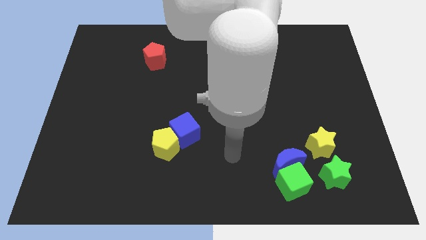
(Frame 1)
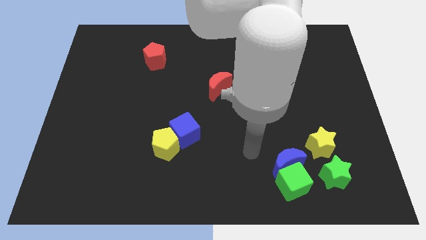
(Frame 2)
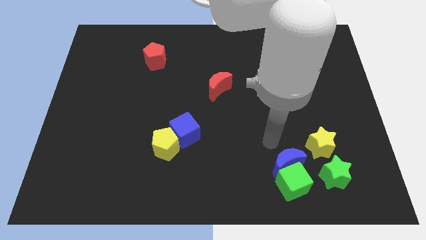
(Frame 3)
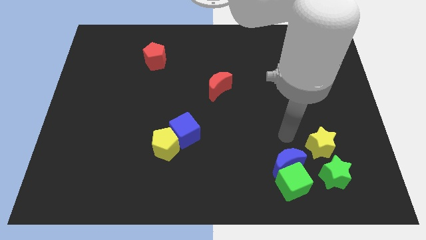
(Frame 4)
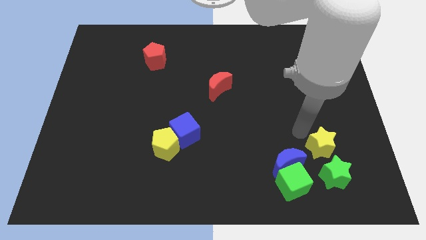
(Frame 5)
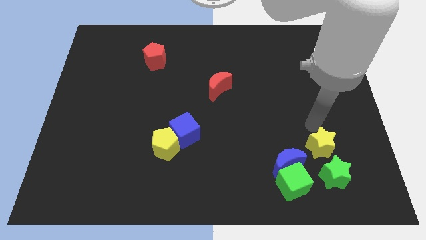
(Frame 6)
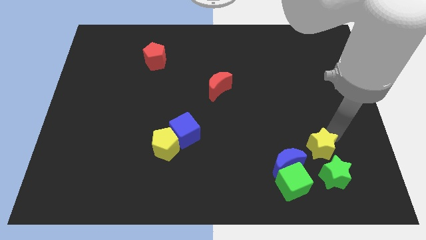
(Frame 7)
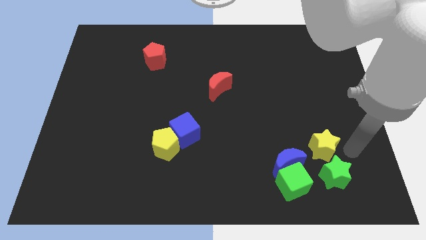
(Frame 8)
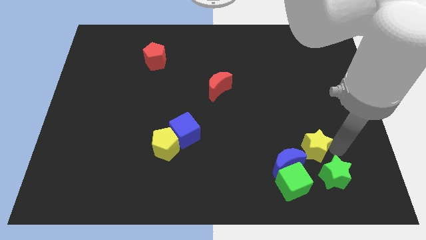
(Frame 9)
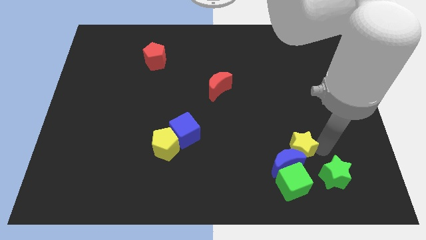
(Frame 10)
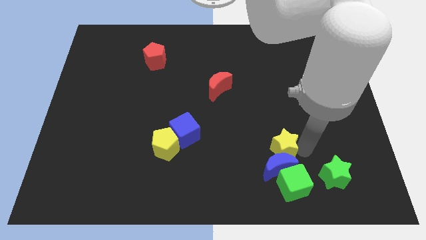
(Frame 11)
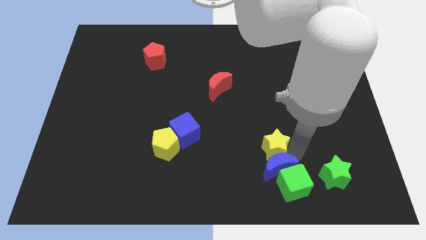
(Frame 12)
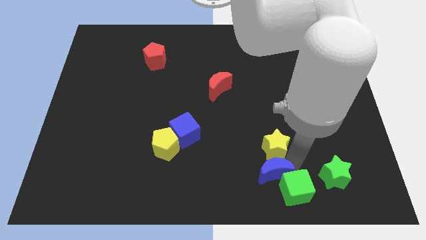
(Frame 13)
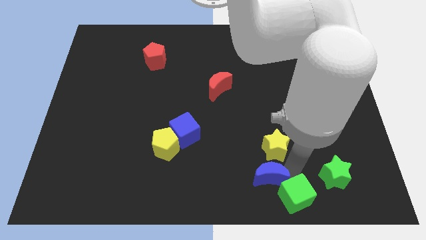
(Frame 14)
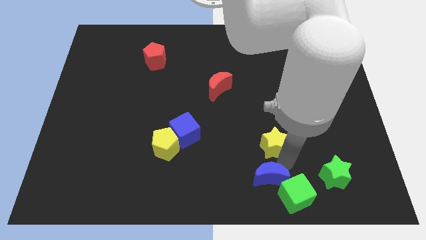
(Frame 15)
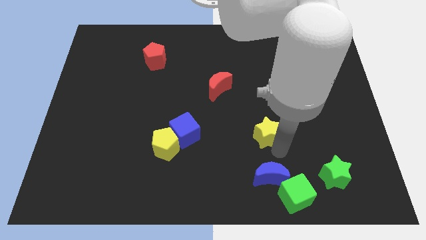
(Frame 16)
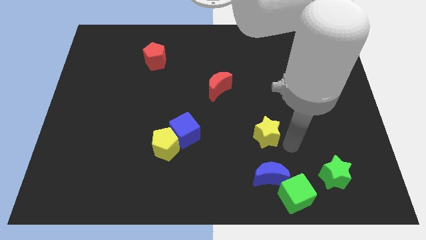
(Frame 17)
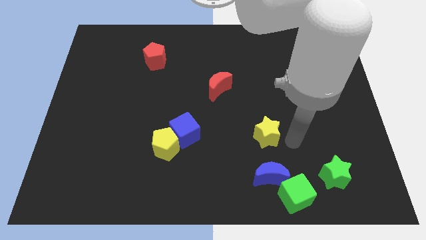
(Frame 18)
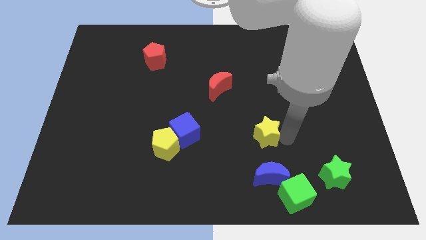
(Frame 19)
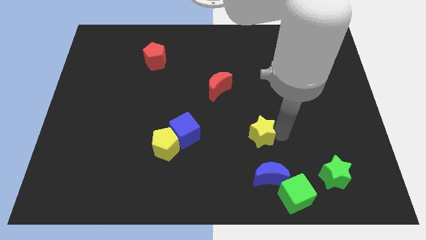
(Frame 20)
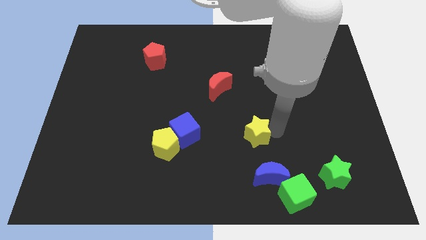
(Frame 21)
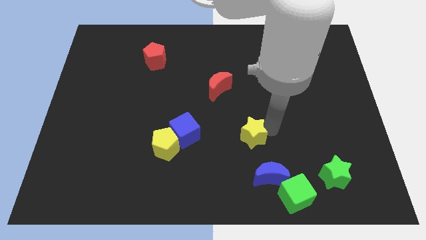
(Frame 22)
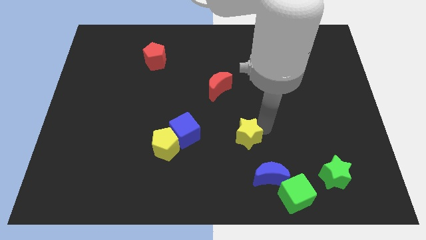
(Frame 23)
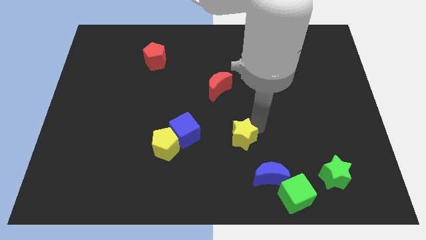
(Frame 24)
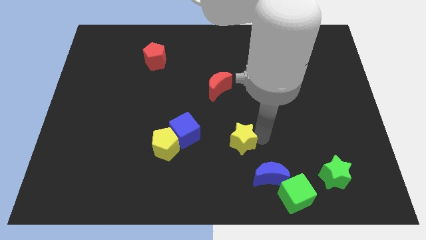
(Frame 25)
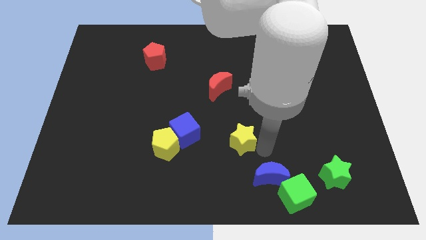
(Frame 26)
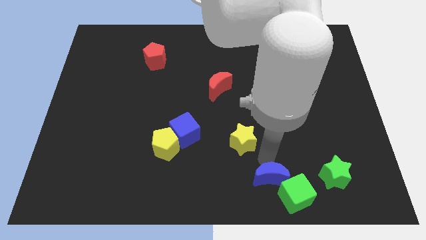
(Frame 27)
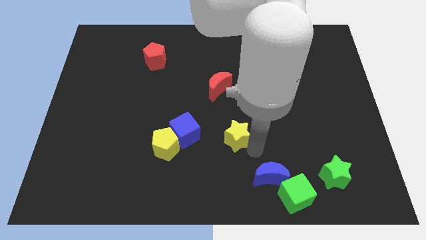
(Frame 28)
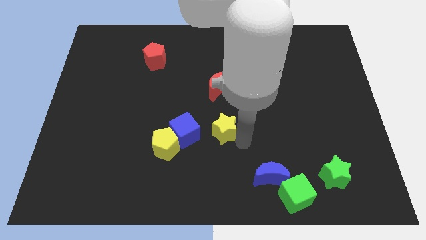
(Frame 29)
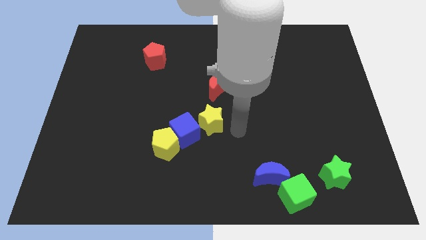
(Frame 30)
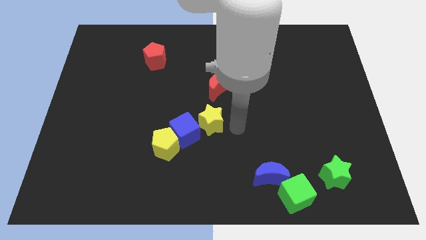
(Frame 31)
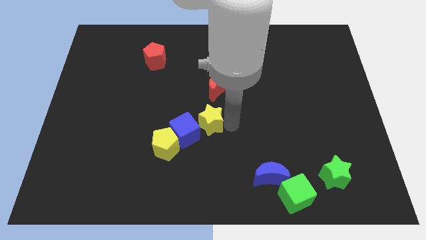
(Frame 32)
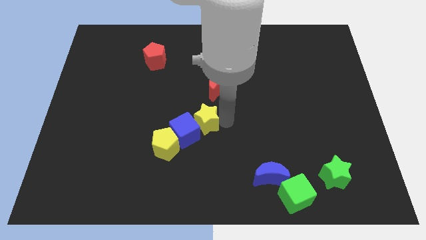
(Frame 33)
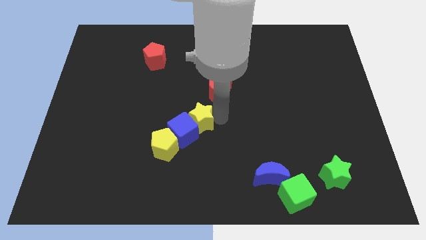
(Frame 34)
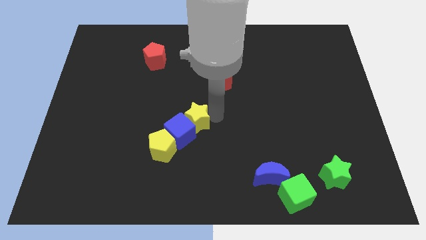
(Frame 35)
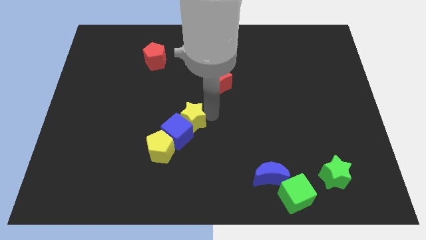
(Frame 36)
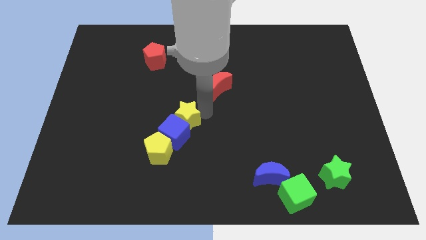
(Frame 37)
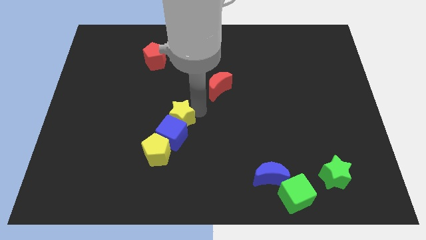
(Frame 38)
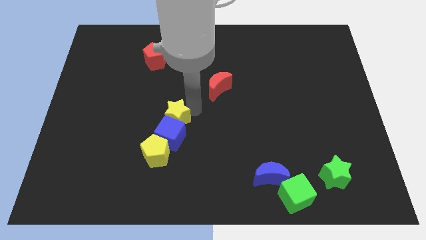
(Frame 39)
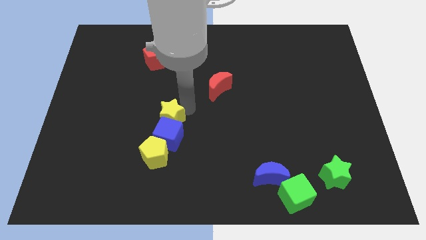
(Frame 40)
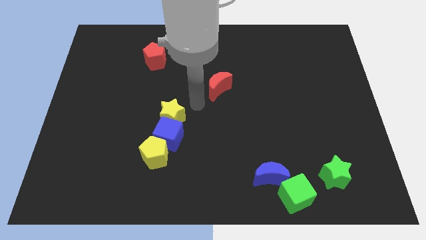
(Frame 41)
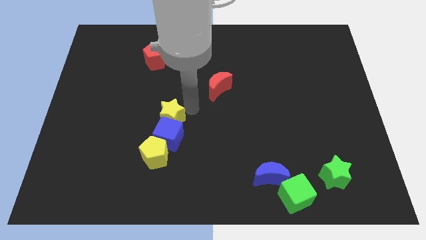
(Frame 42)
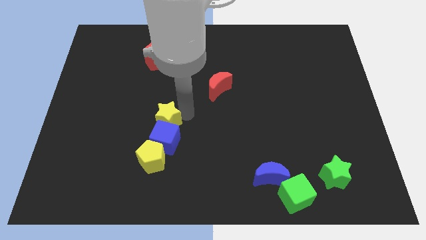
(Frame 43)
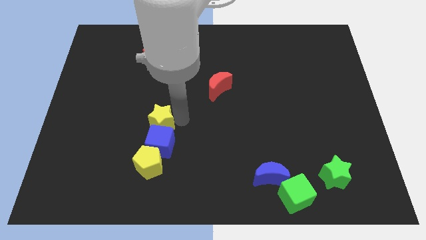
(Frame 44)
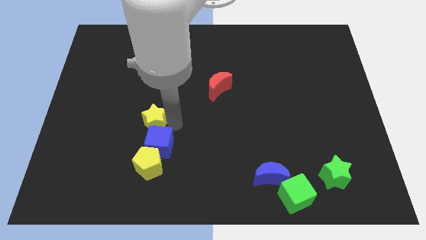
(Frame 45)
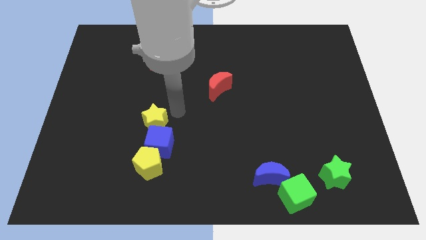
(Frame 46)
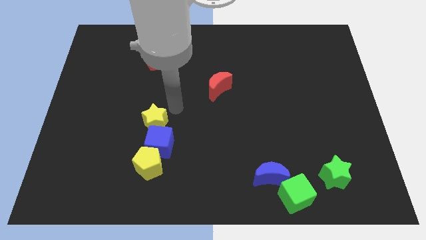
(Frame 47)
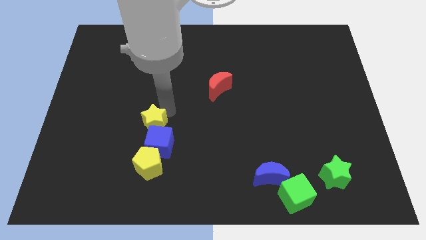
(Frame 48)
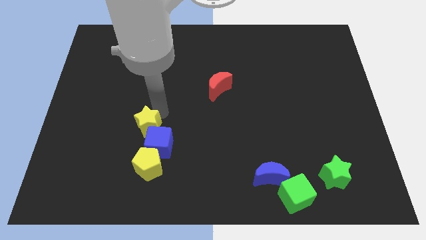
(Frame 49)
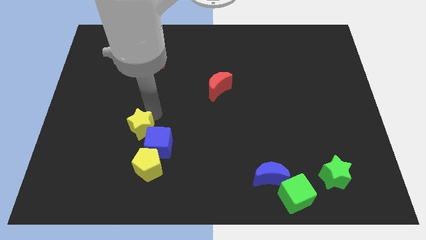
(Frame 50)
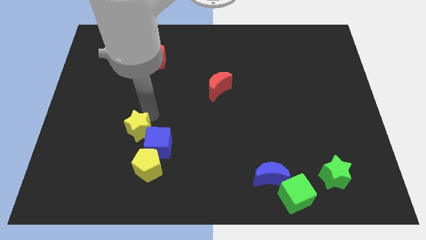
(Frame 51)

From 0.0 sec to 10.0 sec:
slide the yellow star to the top left side of the yellow pentagon

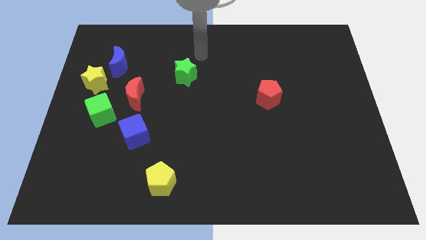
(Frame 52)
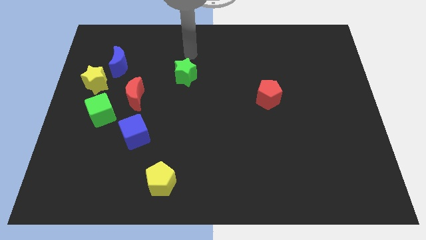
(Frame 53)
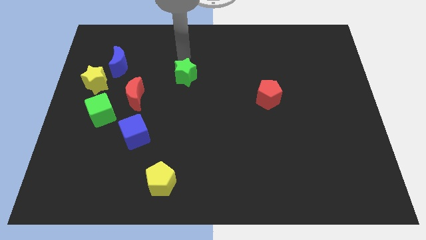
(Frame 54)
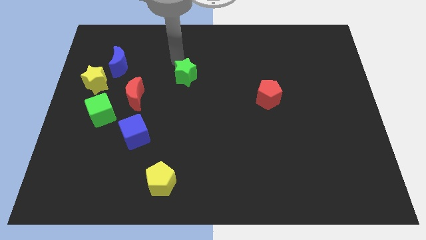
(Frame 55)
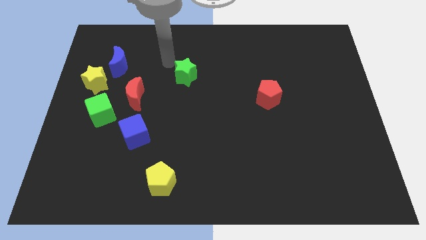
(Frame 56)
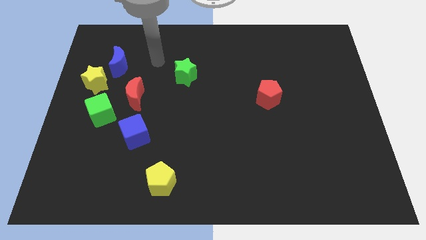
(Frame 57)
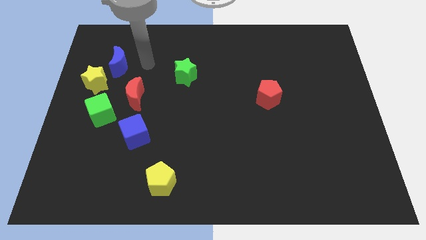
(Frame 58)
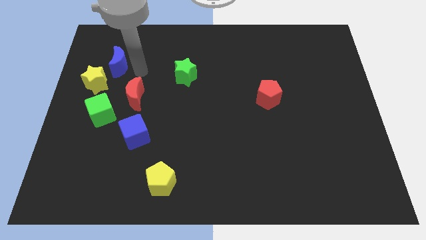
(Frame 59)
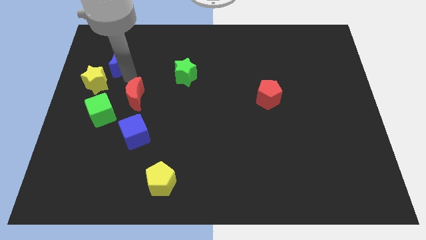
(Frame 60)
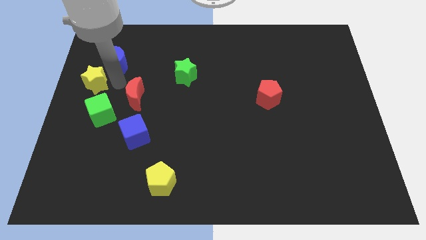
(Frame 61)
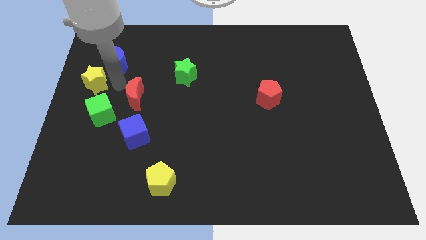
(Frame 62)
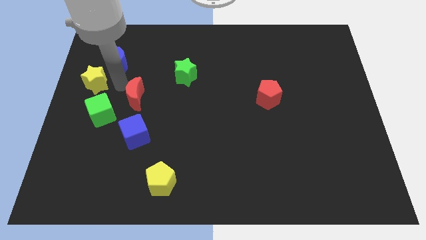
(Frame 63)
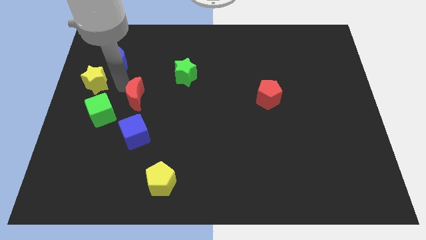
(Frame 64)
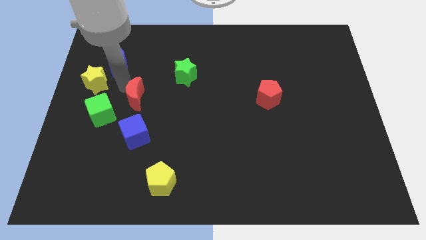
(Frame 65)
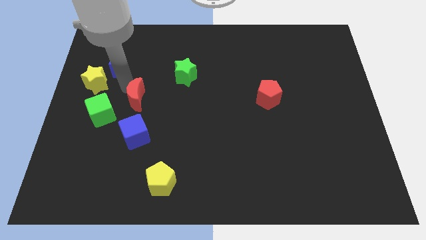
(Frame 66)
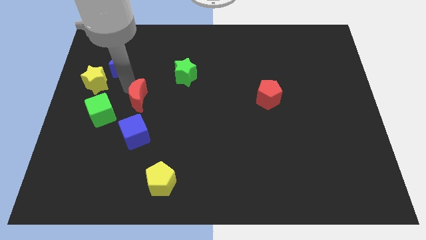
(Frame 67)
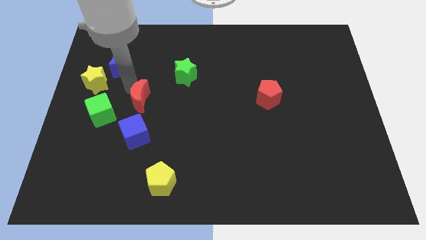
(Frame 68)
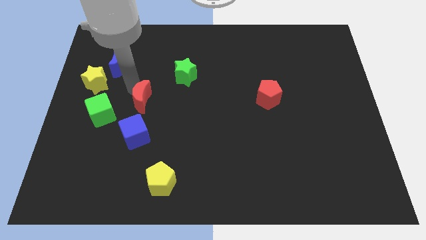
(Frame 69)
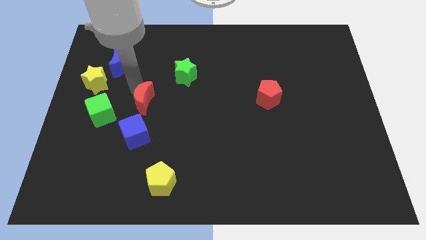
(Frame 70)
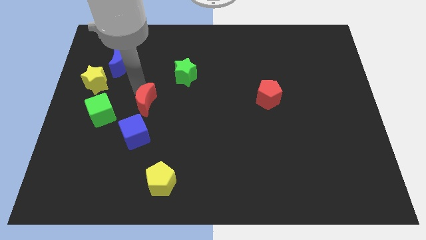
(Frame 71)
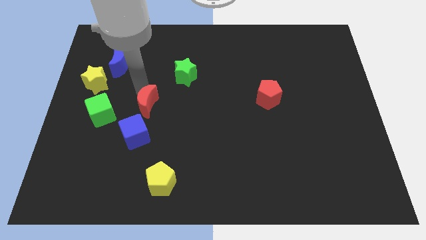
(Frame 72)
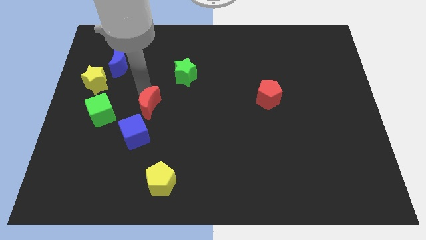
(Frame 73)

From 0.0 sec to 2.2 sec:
push the red moon diagonally up and to the right of the blue cube
